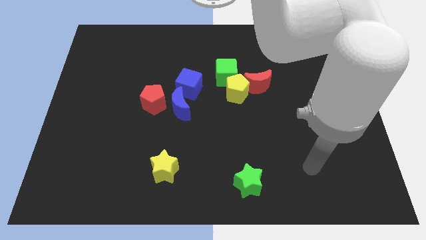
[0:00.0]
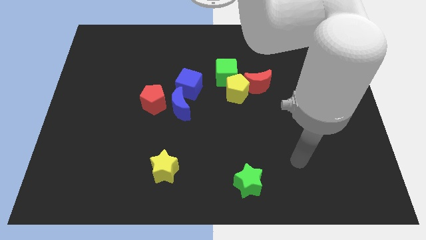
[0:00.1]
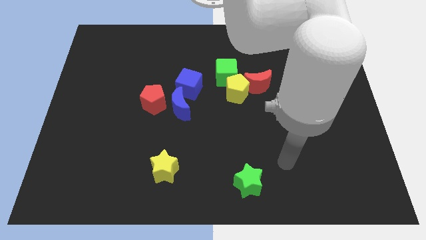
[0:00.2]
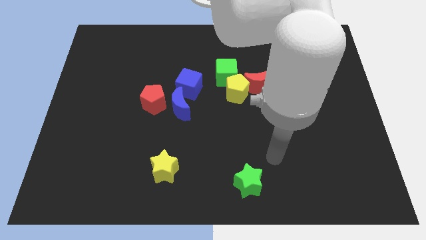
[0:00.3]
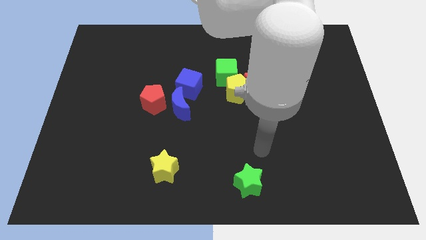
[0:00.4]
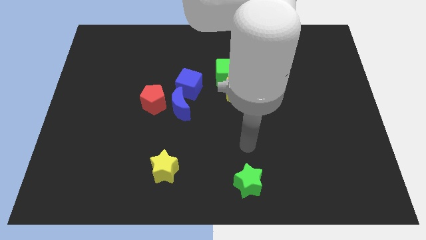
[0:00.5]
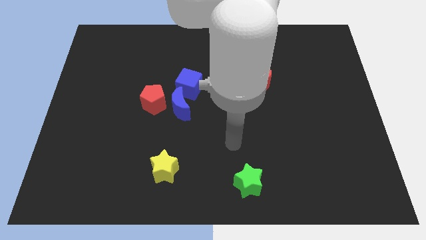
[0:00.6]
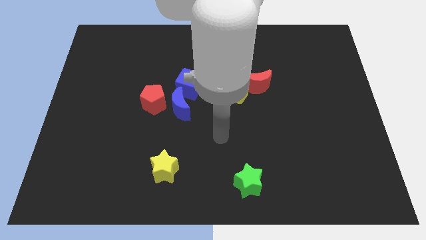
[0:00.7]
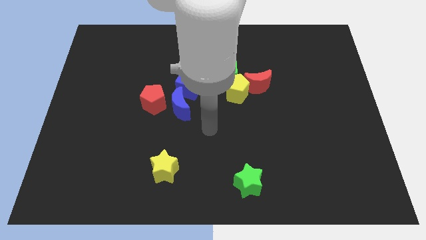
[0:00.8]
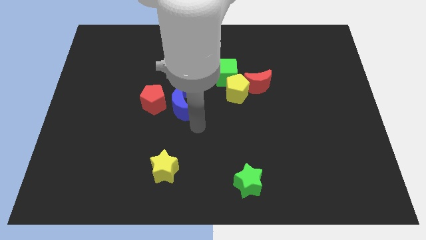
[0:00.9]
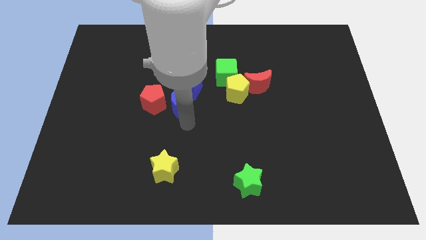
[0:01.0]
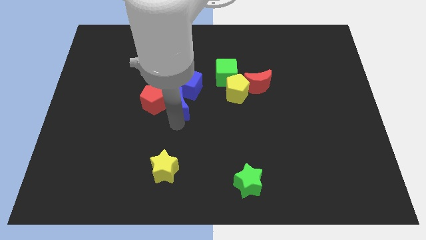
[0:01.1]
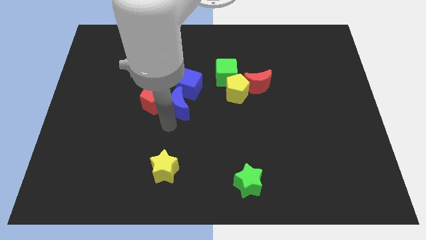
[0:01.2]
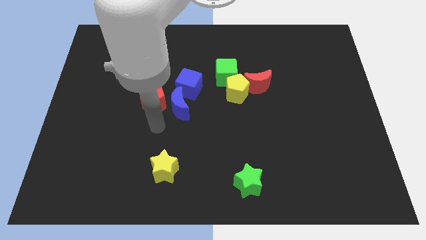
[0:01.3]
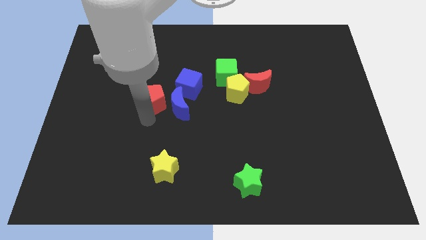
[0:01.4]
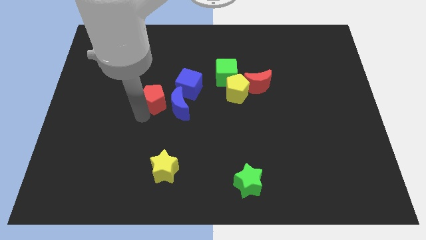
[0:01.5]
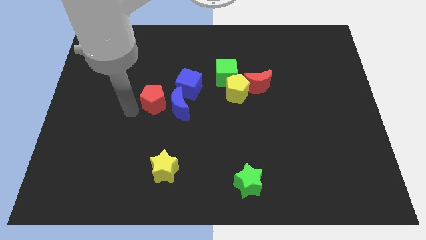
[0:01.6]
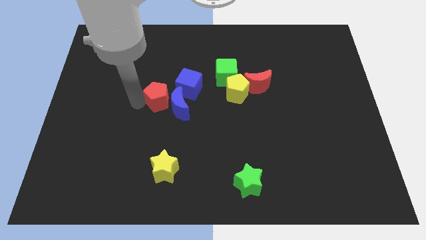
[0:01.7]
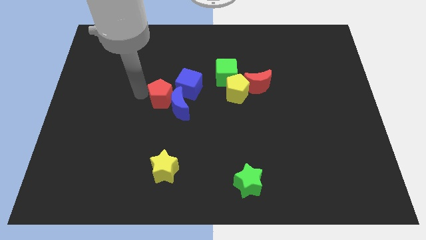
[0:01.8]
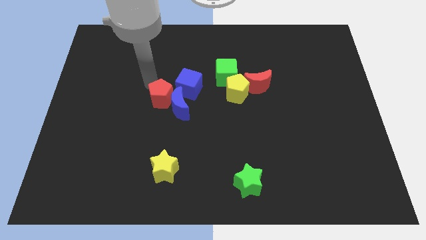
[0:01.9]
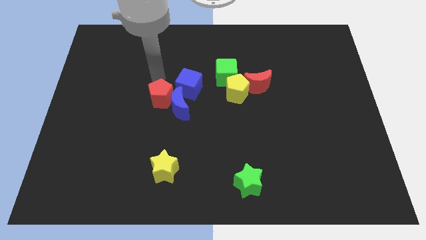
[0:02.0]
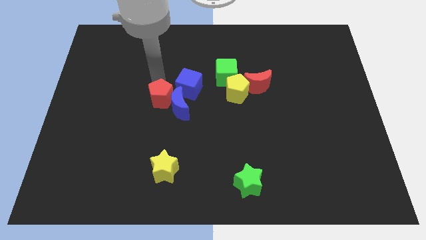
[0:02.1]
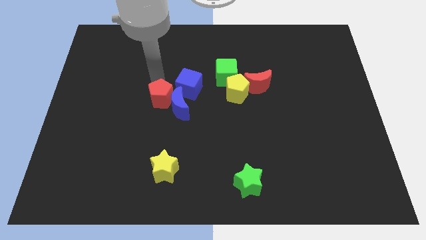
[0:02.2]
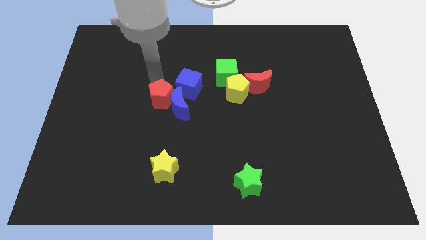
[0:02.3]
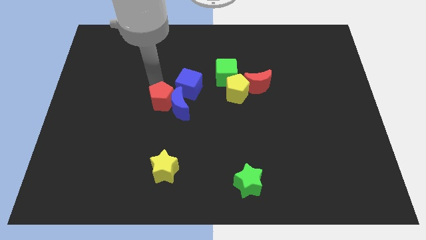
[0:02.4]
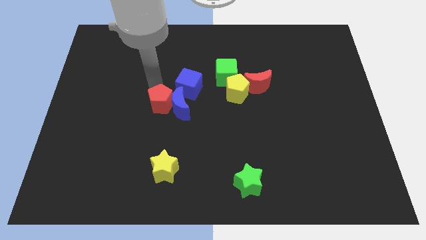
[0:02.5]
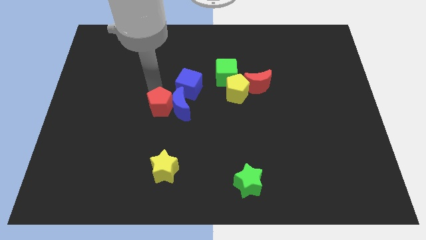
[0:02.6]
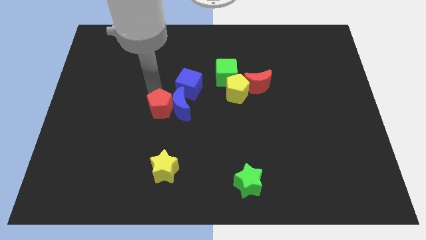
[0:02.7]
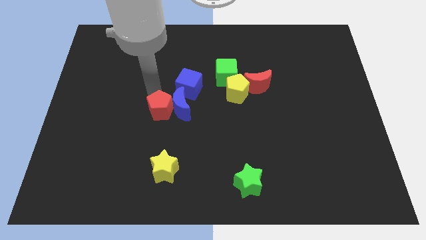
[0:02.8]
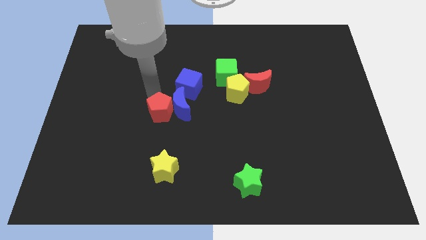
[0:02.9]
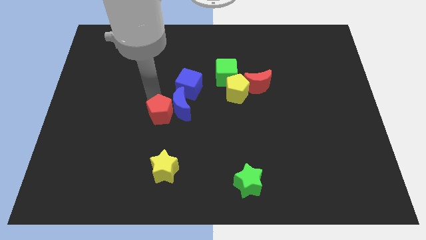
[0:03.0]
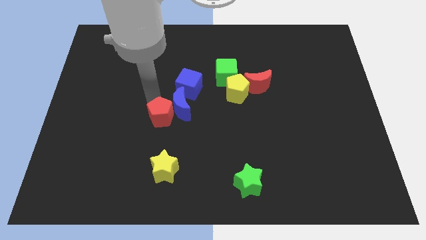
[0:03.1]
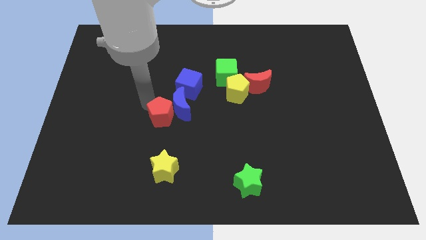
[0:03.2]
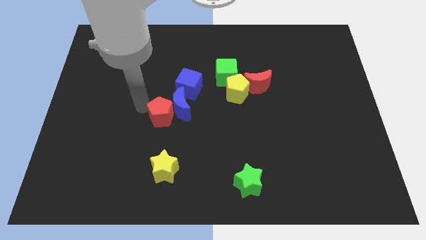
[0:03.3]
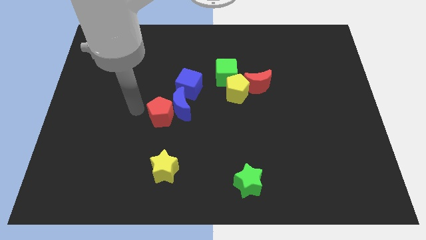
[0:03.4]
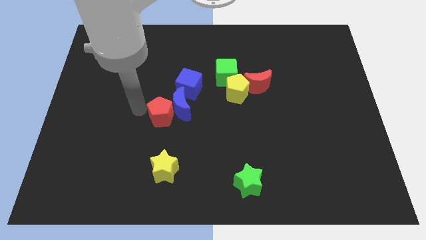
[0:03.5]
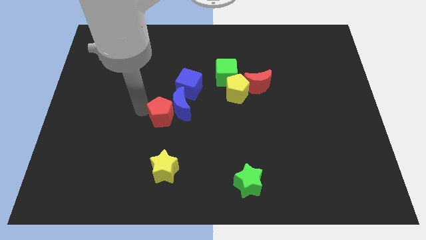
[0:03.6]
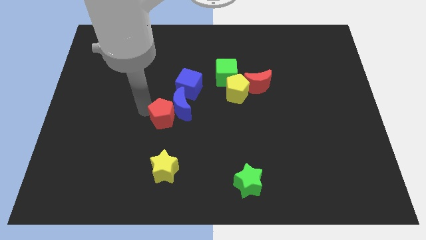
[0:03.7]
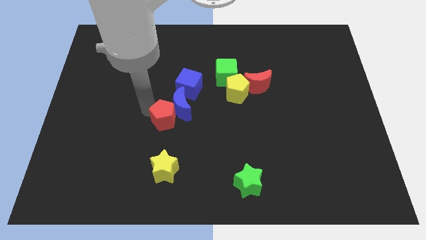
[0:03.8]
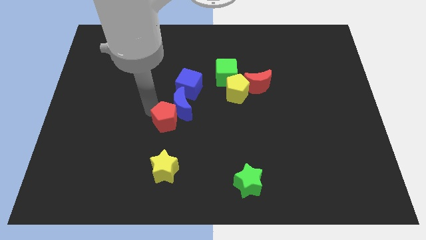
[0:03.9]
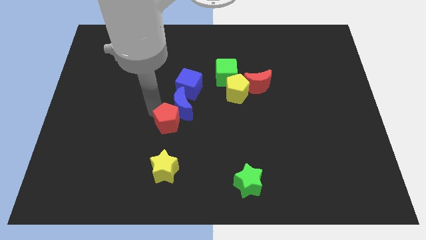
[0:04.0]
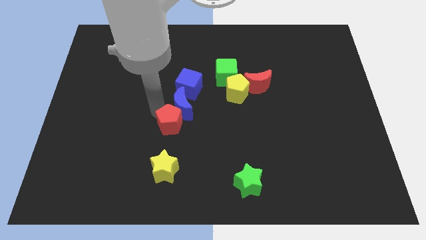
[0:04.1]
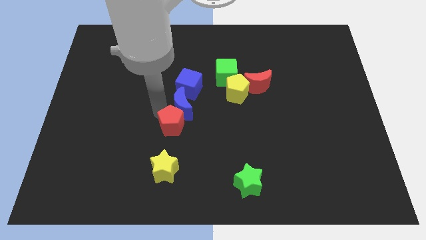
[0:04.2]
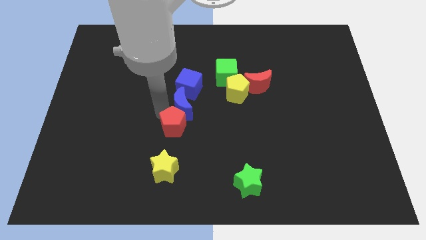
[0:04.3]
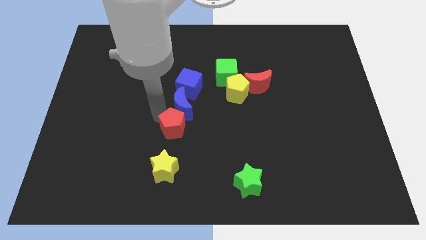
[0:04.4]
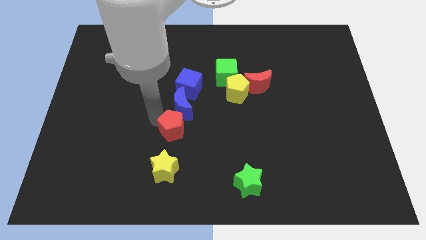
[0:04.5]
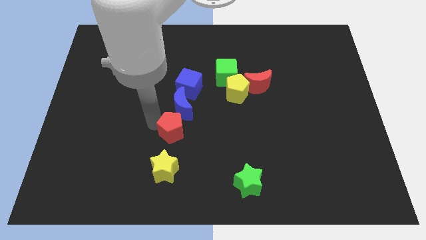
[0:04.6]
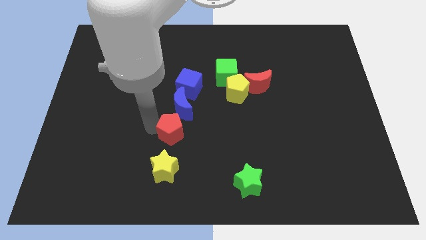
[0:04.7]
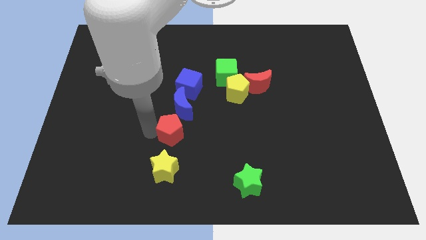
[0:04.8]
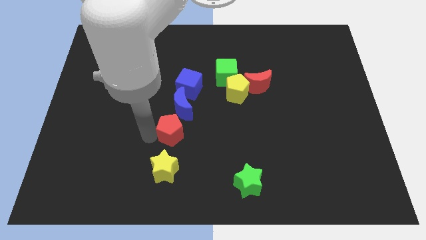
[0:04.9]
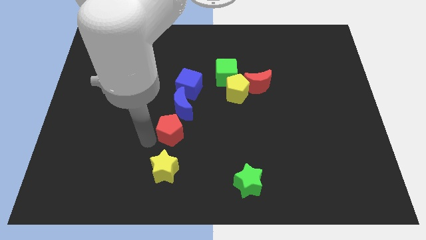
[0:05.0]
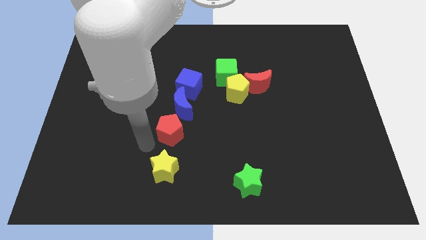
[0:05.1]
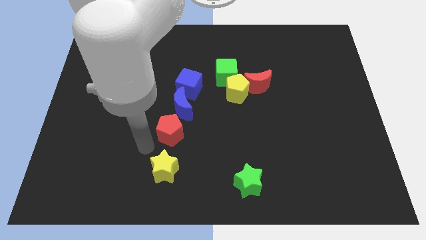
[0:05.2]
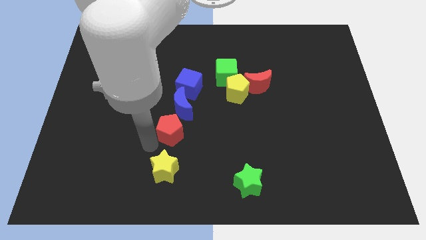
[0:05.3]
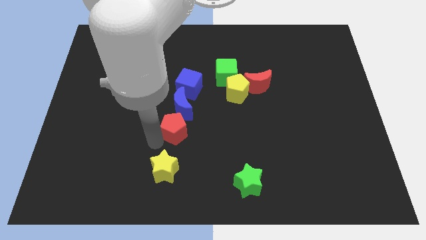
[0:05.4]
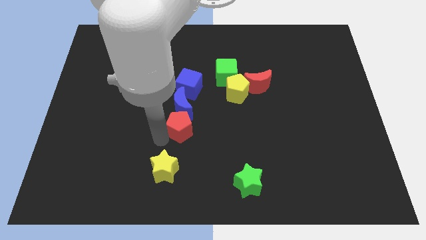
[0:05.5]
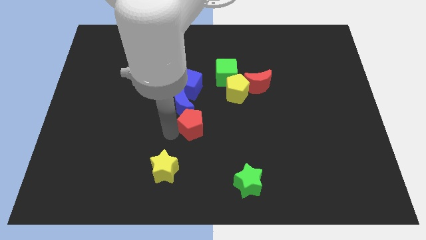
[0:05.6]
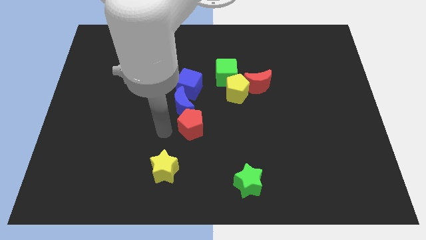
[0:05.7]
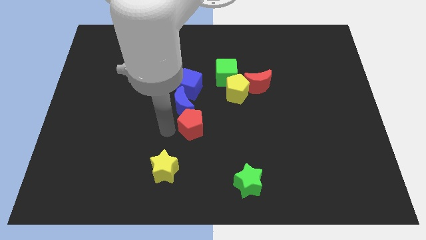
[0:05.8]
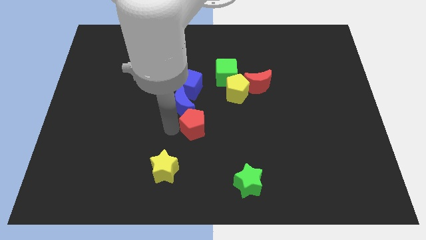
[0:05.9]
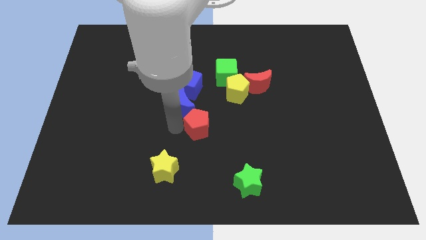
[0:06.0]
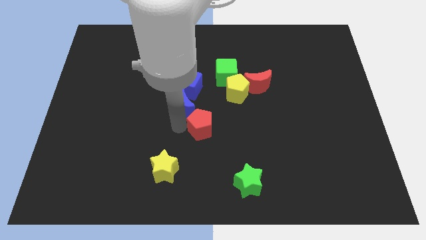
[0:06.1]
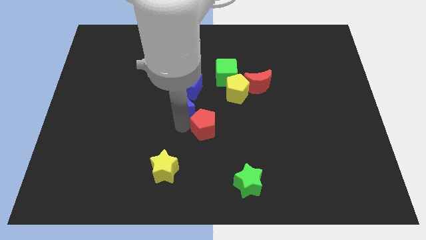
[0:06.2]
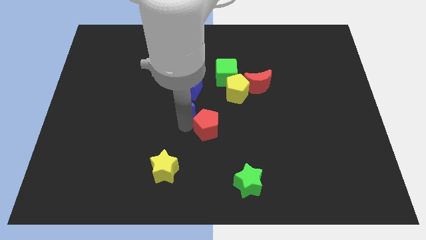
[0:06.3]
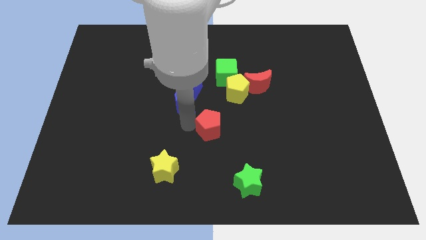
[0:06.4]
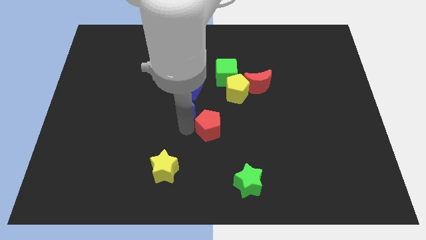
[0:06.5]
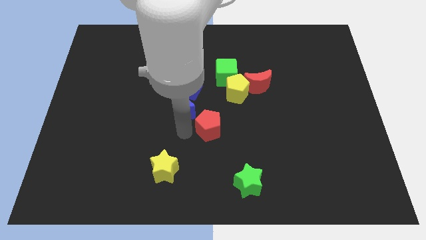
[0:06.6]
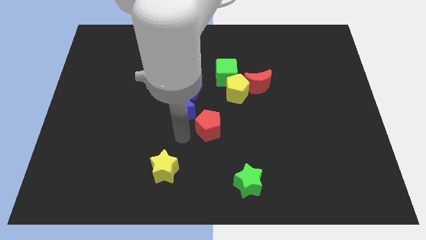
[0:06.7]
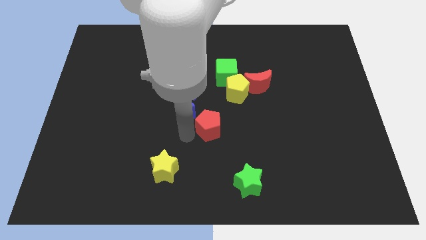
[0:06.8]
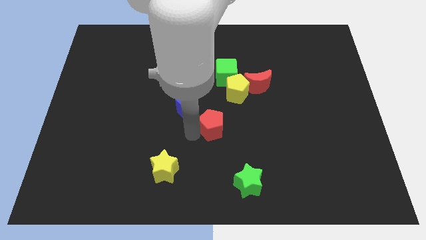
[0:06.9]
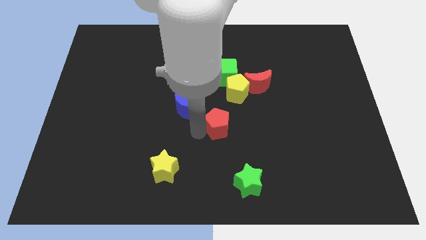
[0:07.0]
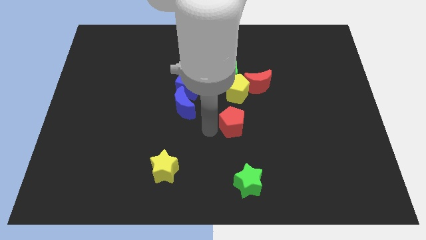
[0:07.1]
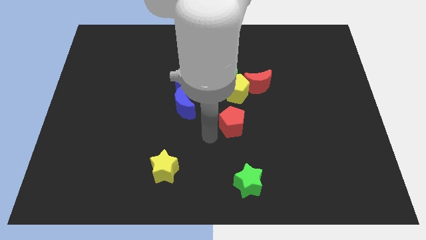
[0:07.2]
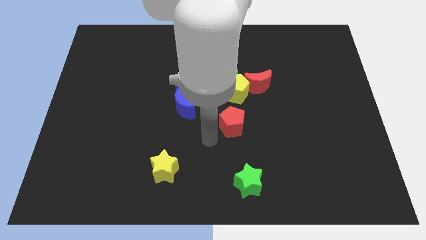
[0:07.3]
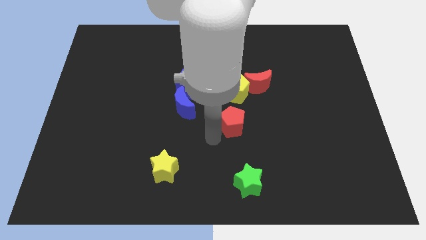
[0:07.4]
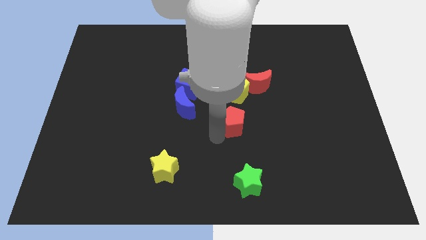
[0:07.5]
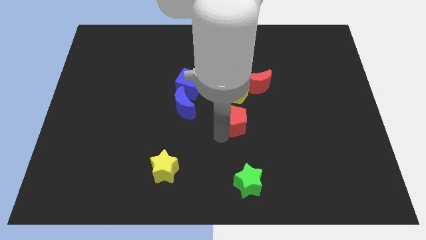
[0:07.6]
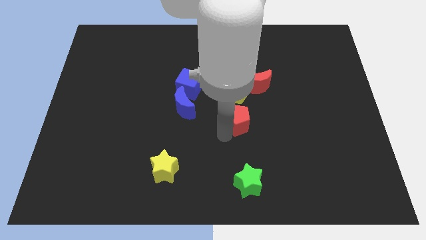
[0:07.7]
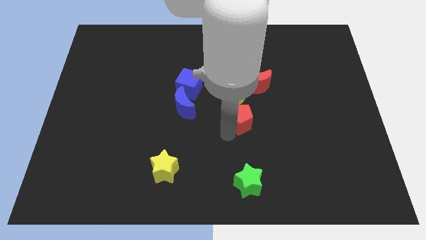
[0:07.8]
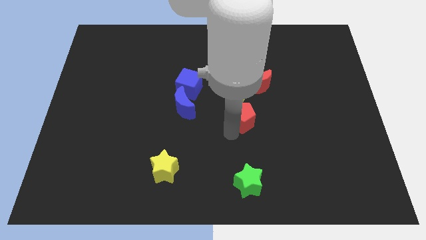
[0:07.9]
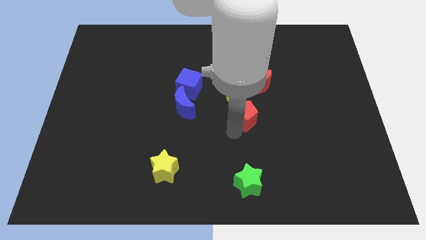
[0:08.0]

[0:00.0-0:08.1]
move the red pentagon to the bottom right of the yellow pentagon
